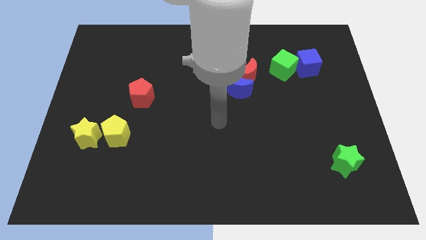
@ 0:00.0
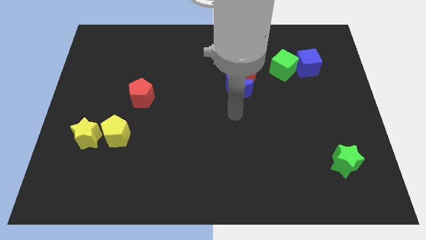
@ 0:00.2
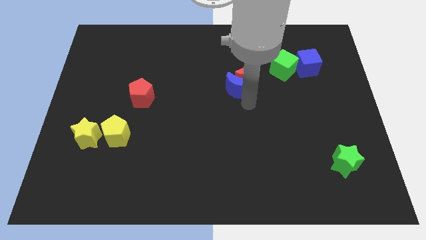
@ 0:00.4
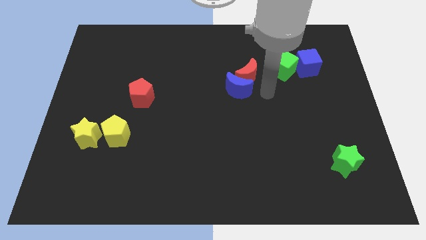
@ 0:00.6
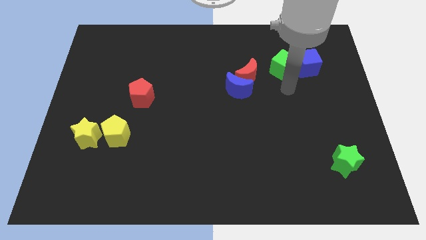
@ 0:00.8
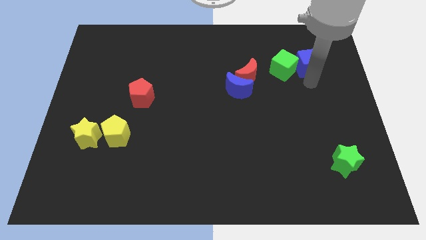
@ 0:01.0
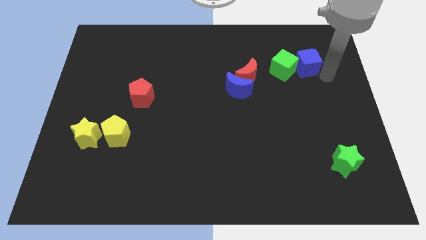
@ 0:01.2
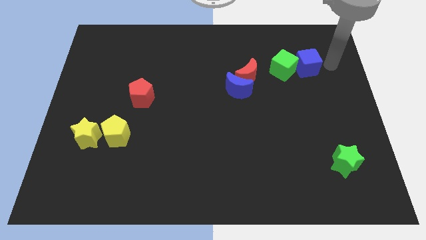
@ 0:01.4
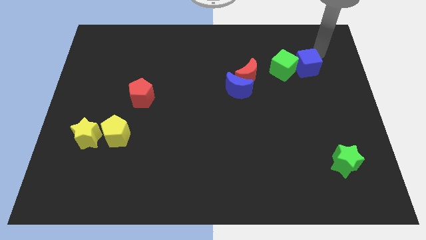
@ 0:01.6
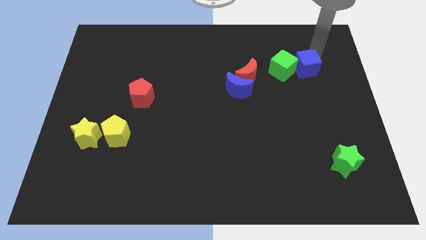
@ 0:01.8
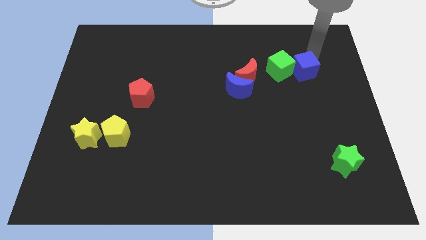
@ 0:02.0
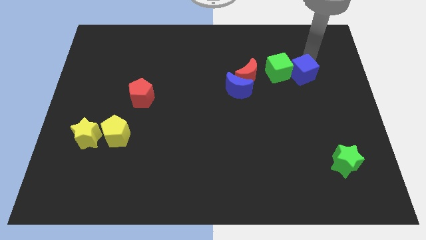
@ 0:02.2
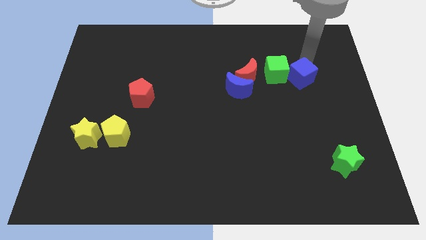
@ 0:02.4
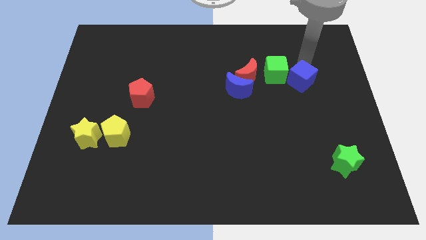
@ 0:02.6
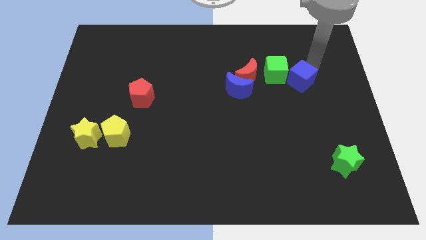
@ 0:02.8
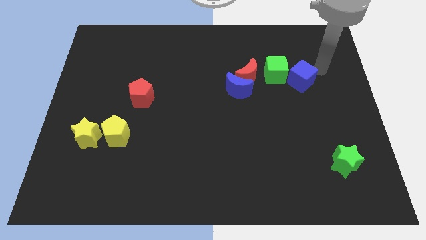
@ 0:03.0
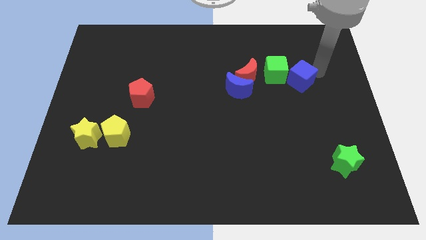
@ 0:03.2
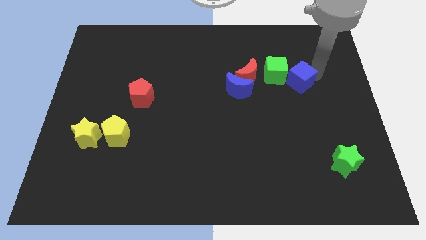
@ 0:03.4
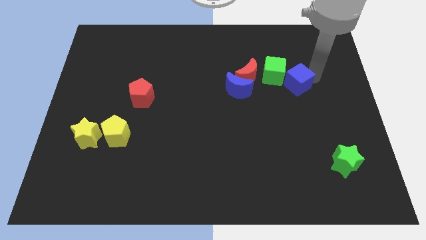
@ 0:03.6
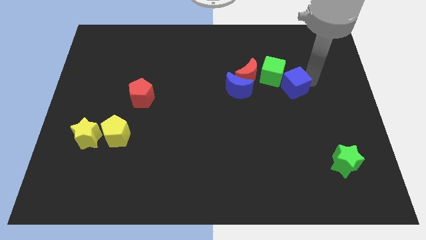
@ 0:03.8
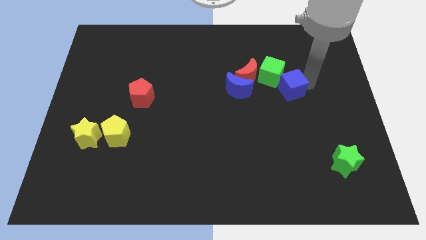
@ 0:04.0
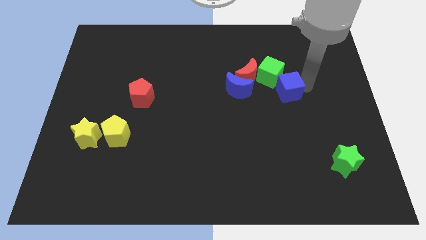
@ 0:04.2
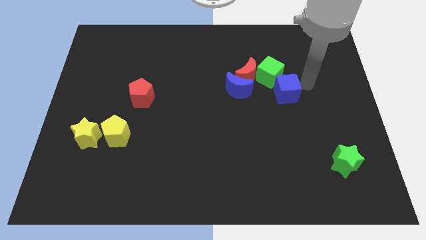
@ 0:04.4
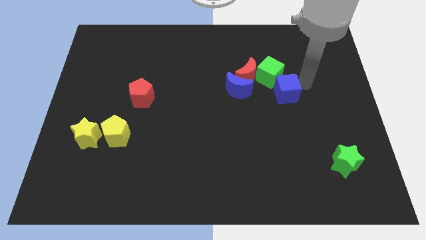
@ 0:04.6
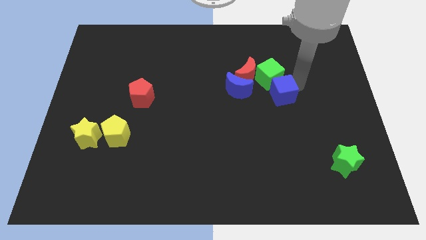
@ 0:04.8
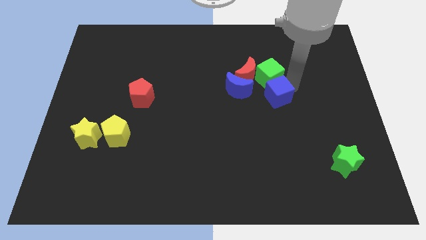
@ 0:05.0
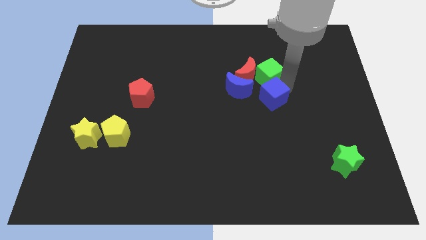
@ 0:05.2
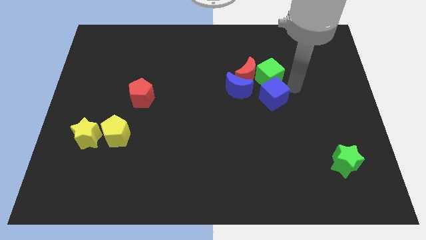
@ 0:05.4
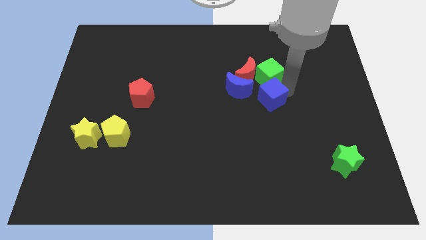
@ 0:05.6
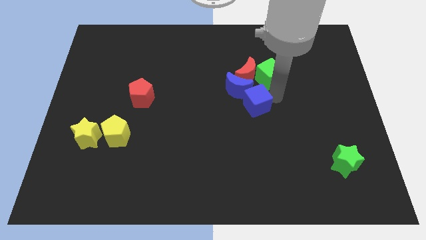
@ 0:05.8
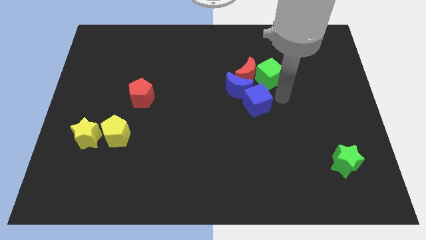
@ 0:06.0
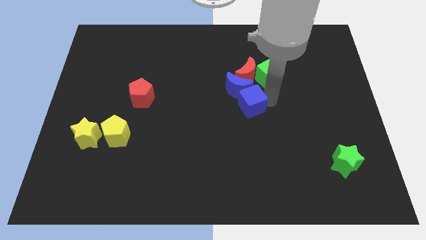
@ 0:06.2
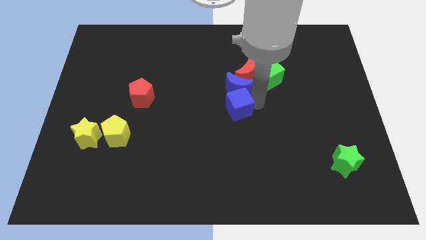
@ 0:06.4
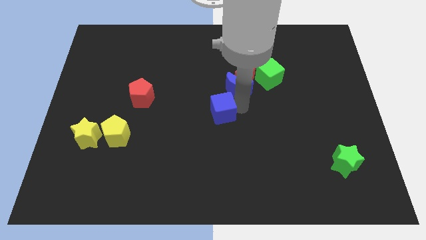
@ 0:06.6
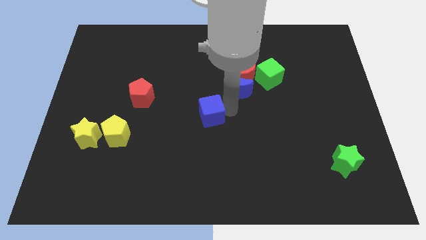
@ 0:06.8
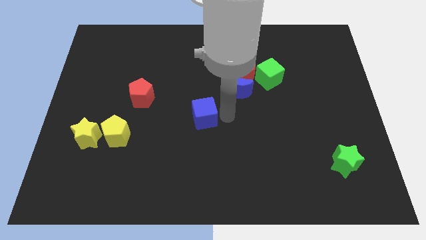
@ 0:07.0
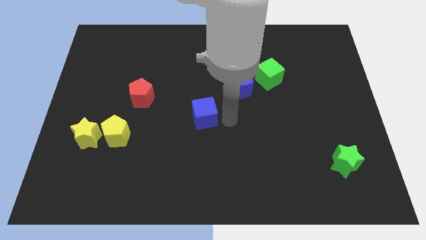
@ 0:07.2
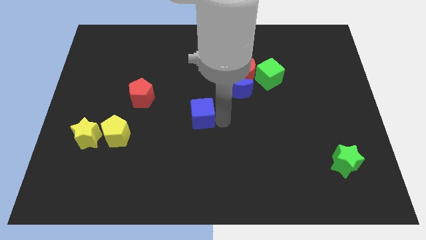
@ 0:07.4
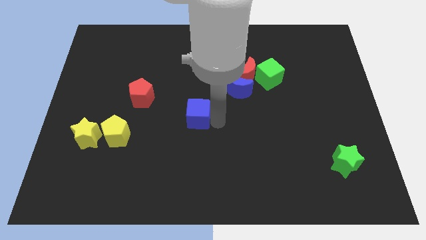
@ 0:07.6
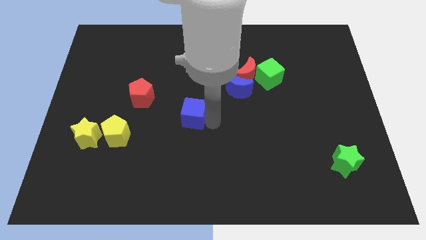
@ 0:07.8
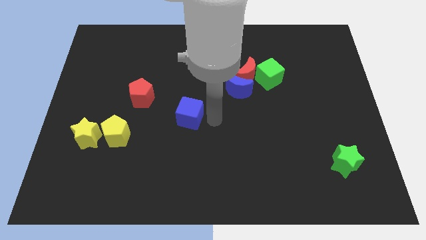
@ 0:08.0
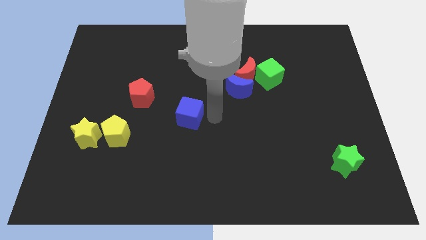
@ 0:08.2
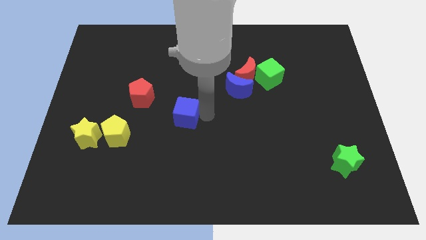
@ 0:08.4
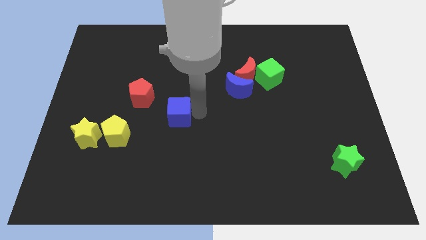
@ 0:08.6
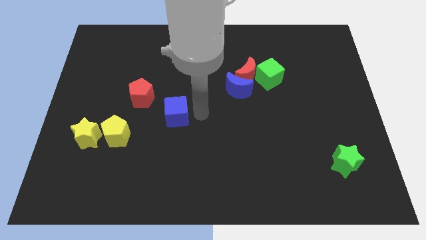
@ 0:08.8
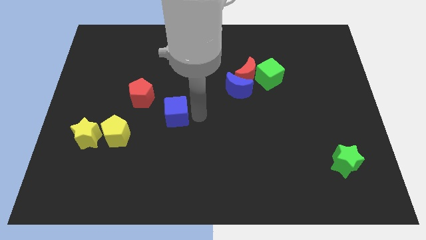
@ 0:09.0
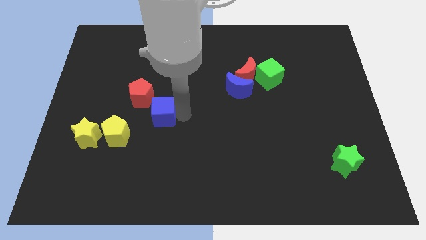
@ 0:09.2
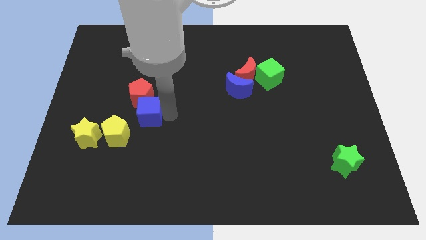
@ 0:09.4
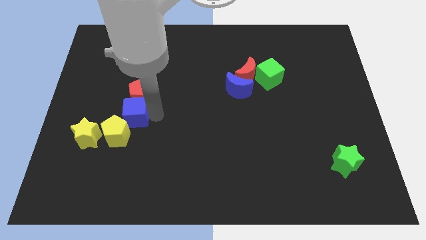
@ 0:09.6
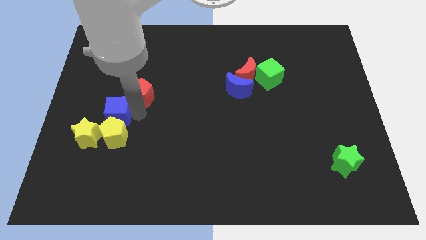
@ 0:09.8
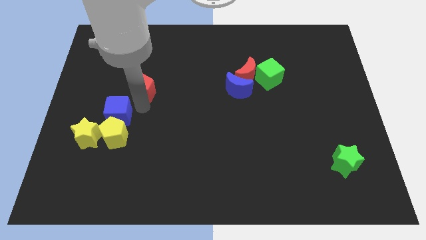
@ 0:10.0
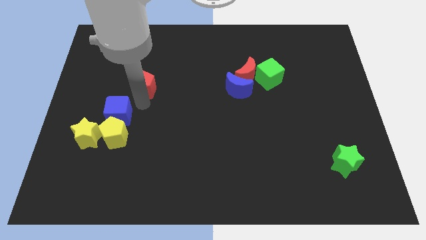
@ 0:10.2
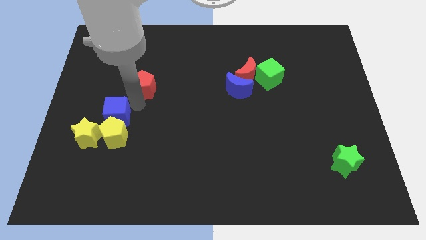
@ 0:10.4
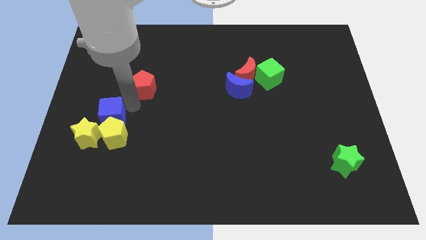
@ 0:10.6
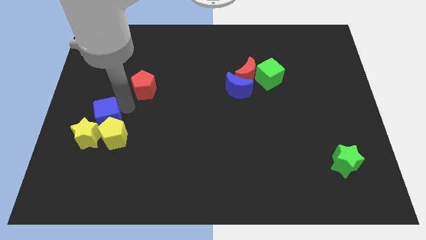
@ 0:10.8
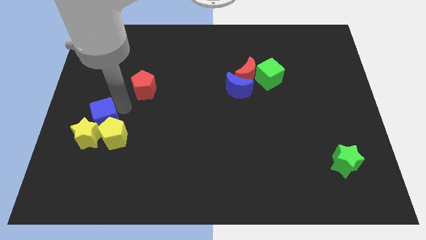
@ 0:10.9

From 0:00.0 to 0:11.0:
slide the blue cube to the yellow star
